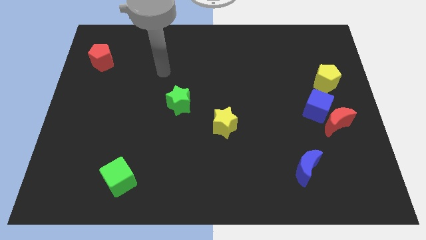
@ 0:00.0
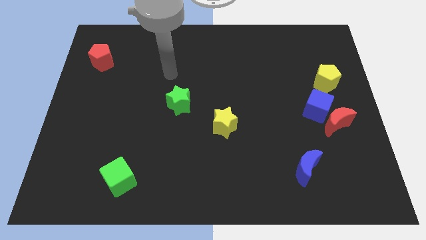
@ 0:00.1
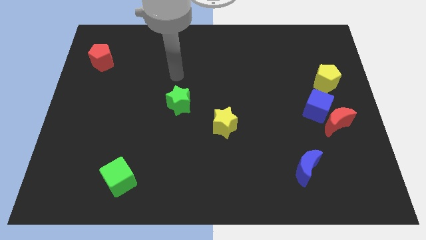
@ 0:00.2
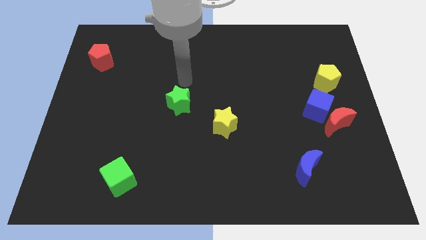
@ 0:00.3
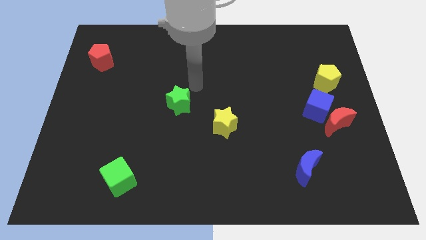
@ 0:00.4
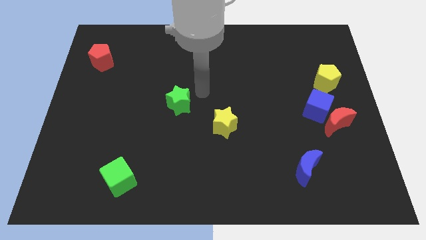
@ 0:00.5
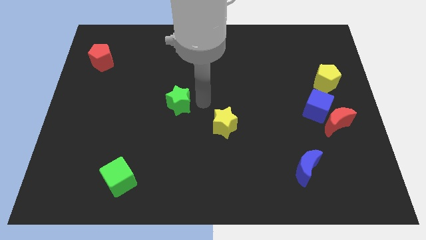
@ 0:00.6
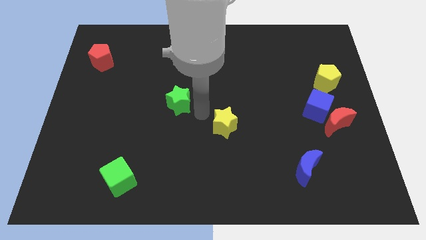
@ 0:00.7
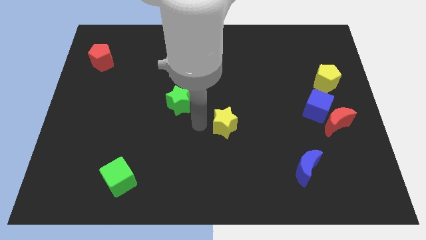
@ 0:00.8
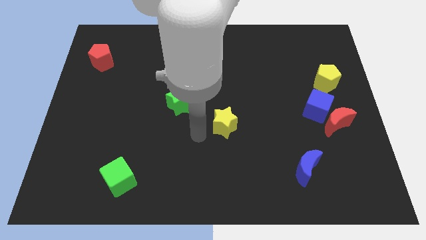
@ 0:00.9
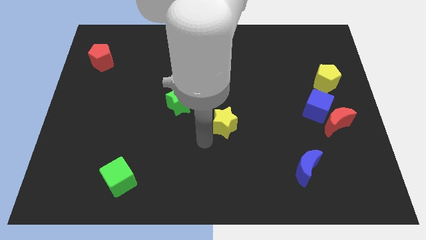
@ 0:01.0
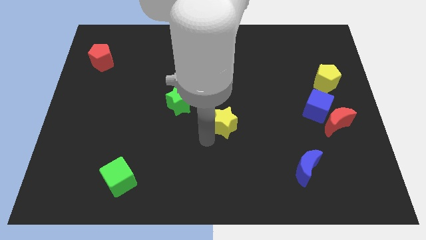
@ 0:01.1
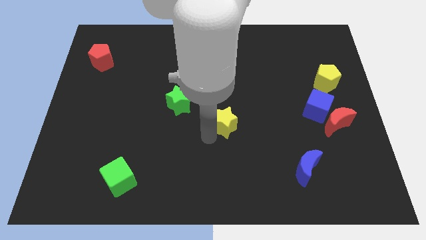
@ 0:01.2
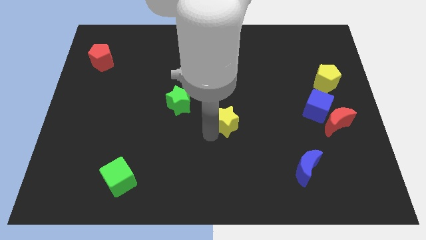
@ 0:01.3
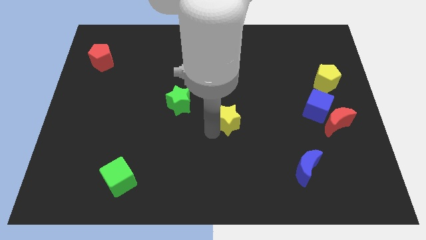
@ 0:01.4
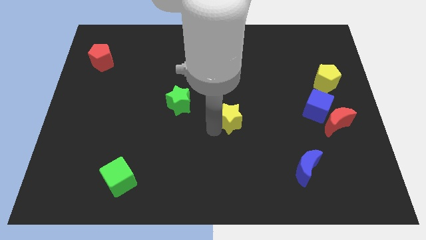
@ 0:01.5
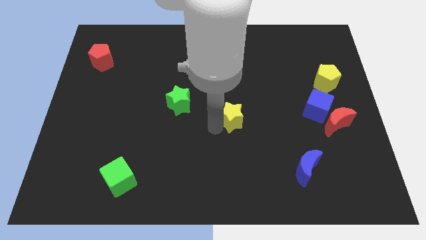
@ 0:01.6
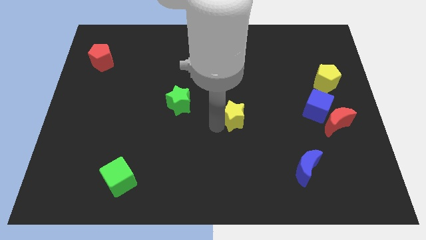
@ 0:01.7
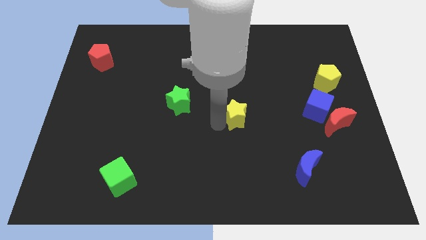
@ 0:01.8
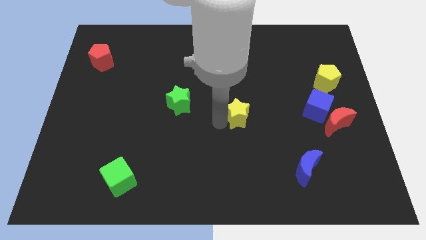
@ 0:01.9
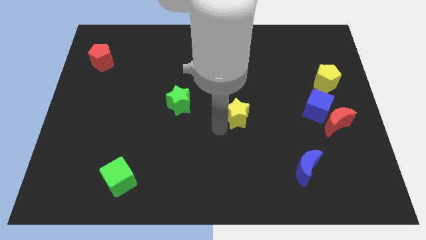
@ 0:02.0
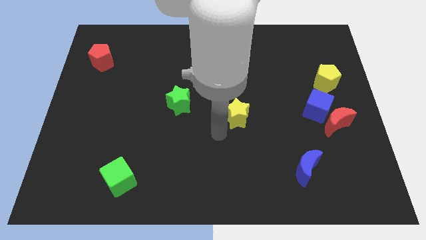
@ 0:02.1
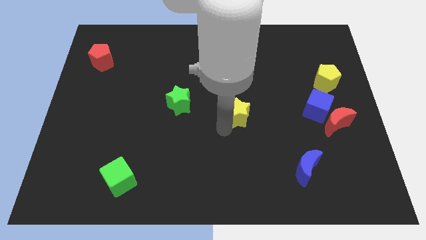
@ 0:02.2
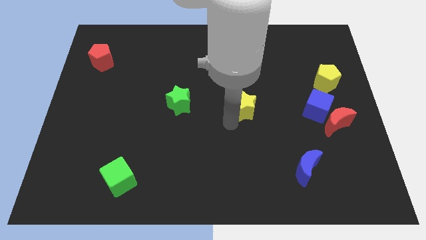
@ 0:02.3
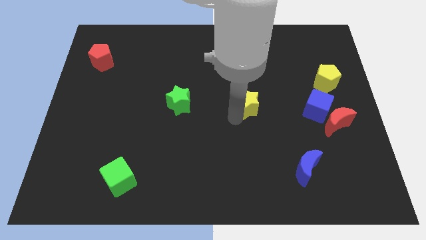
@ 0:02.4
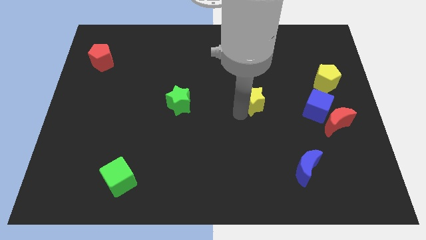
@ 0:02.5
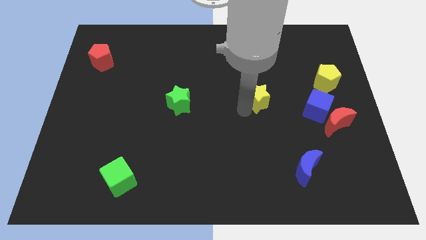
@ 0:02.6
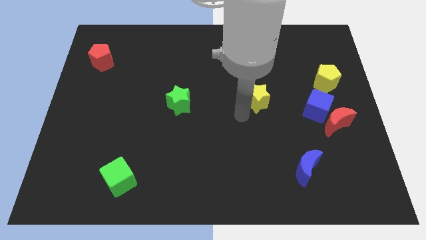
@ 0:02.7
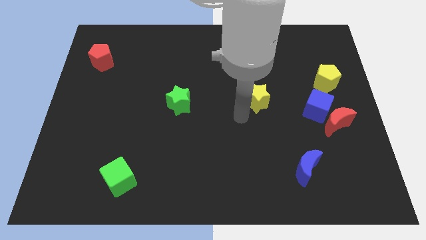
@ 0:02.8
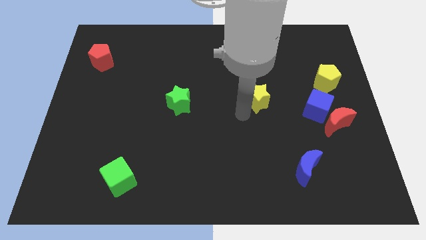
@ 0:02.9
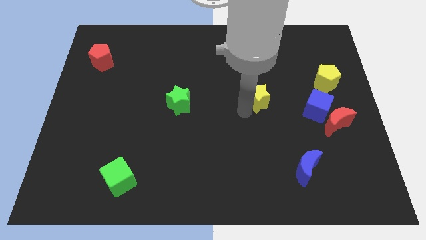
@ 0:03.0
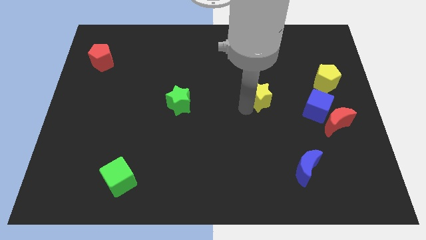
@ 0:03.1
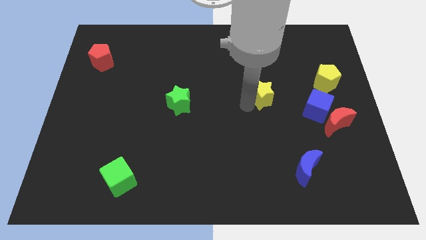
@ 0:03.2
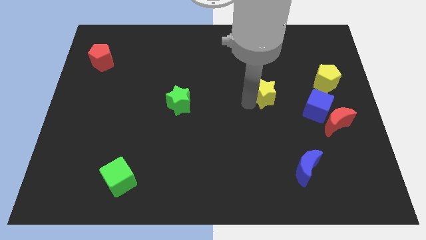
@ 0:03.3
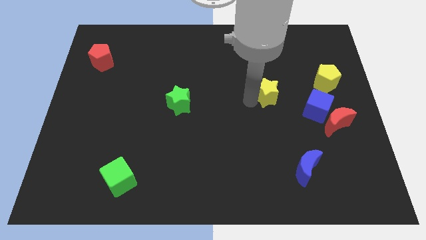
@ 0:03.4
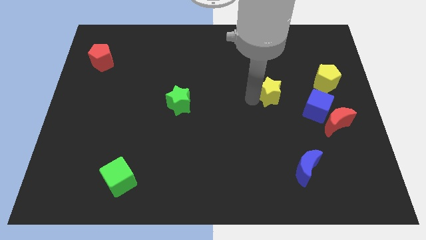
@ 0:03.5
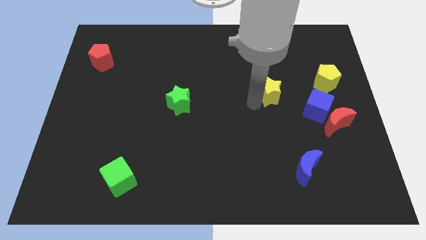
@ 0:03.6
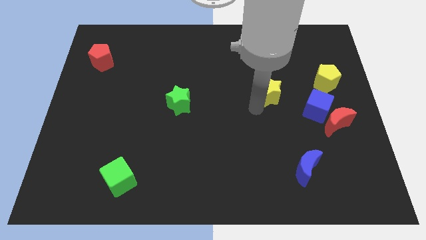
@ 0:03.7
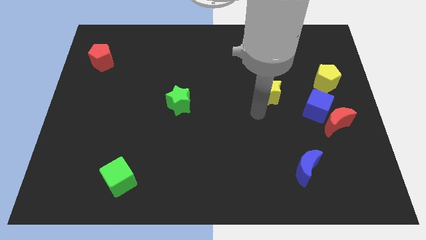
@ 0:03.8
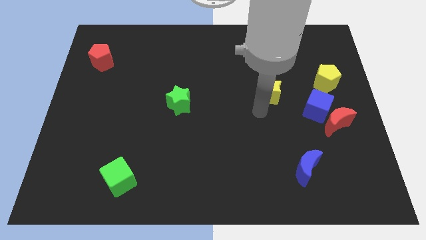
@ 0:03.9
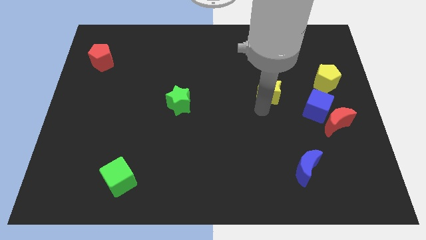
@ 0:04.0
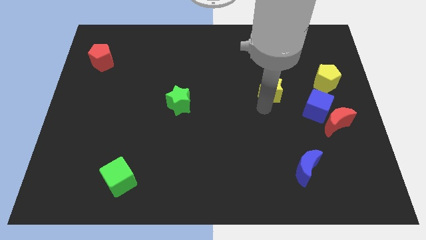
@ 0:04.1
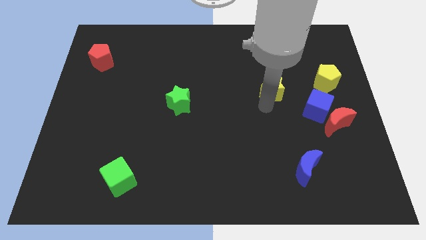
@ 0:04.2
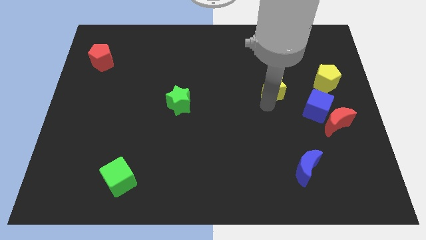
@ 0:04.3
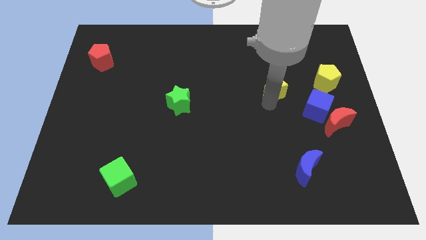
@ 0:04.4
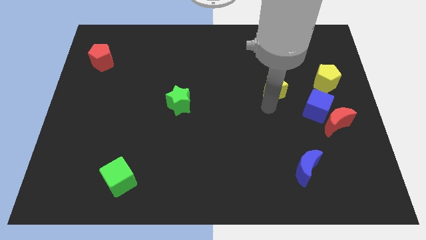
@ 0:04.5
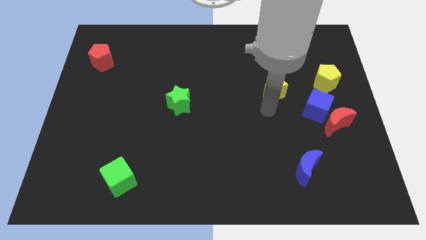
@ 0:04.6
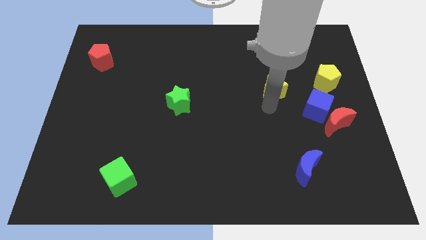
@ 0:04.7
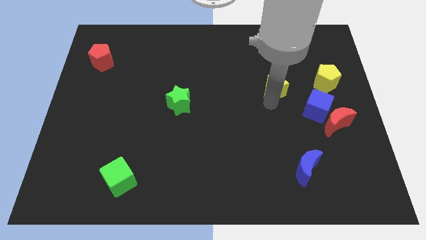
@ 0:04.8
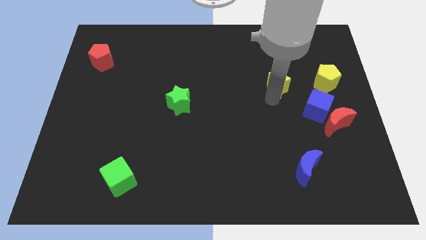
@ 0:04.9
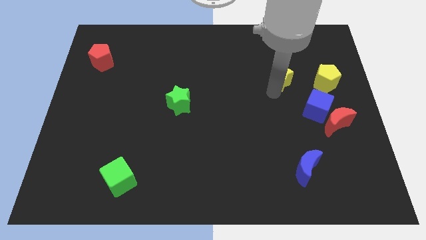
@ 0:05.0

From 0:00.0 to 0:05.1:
slide the yellow star upwards and to the right

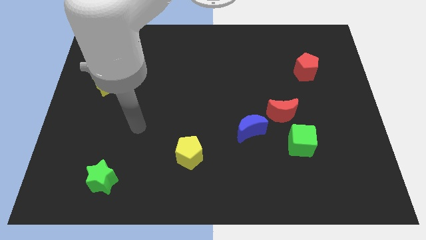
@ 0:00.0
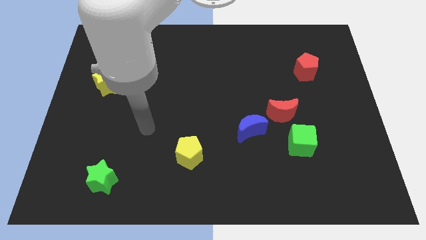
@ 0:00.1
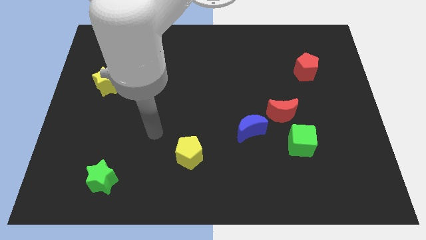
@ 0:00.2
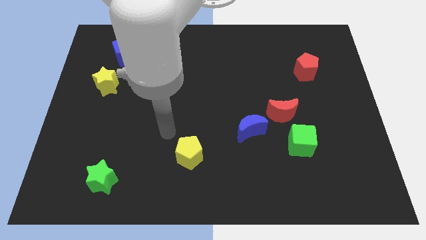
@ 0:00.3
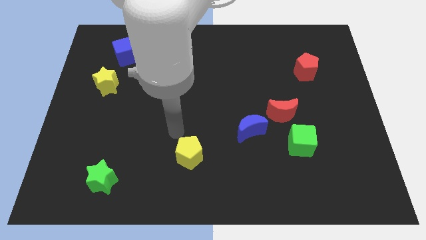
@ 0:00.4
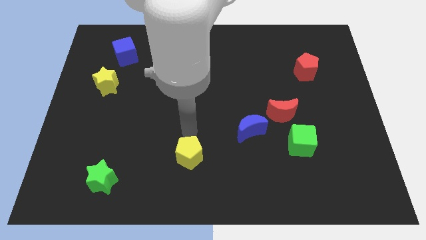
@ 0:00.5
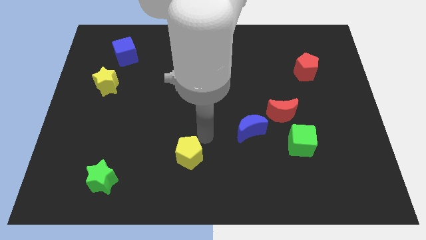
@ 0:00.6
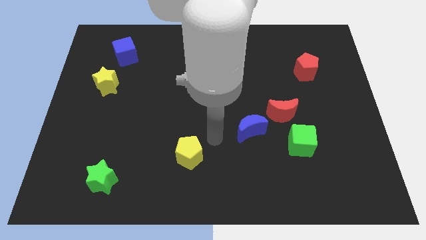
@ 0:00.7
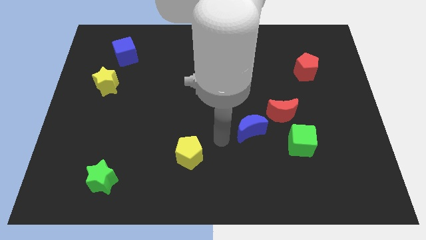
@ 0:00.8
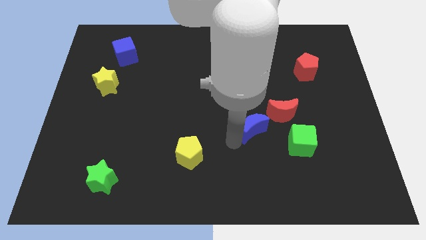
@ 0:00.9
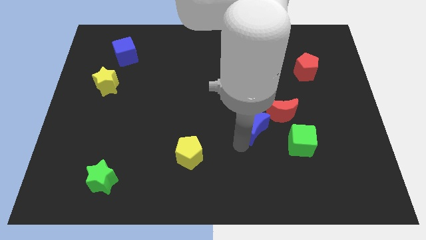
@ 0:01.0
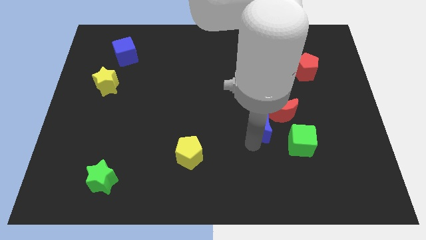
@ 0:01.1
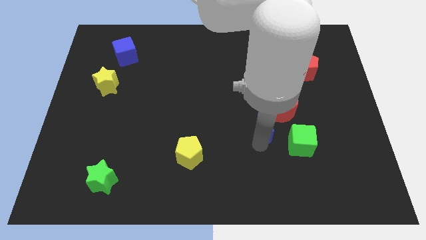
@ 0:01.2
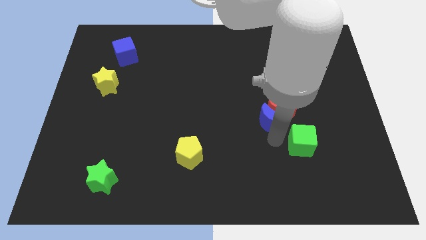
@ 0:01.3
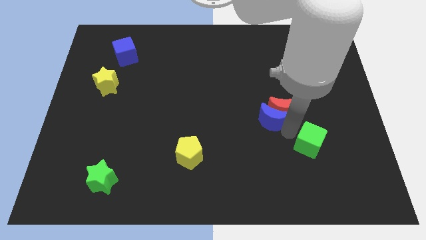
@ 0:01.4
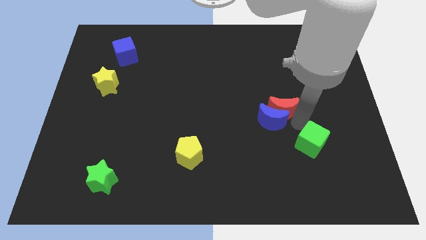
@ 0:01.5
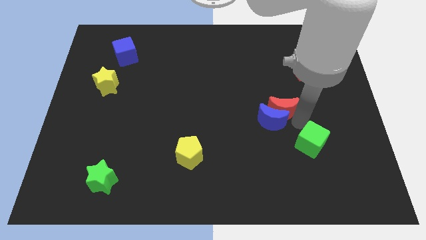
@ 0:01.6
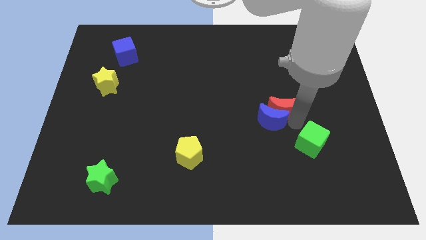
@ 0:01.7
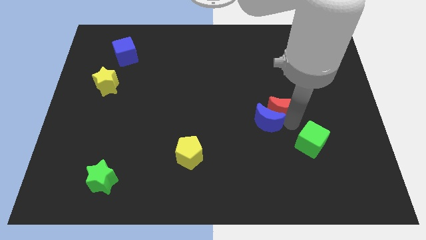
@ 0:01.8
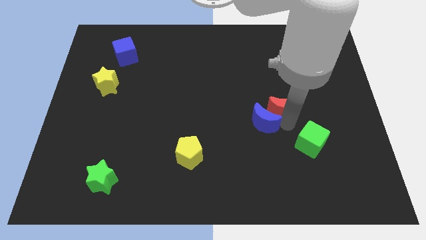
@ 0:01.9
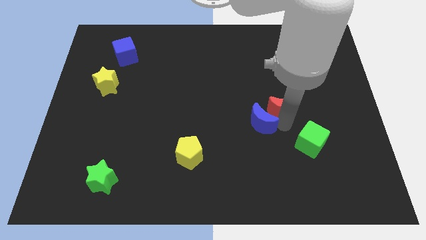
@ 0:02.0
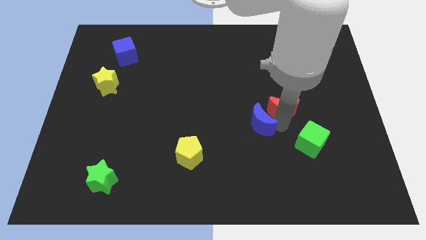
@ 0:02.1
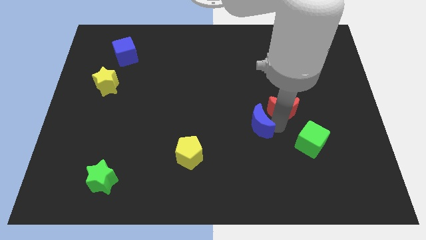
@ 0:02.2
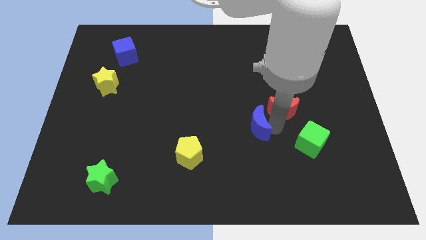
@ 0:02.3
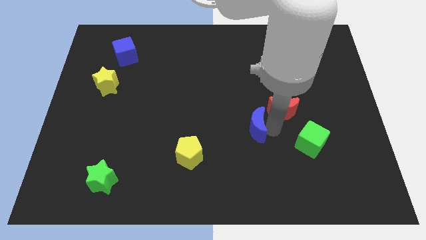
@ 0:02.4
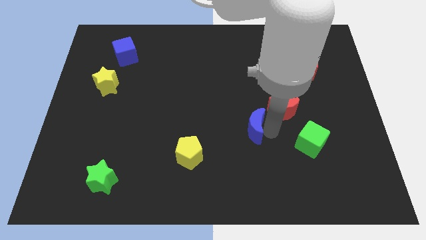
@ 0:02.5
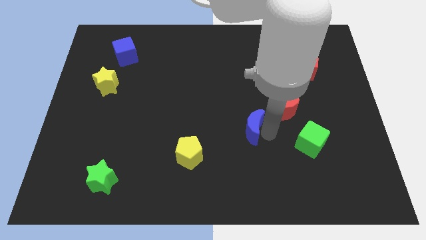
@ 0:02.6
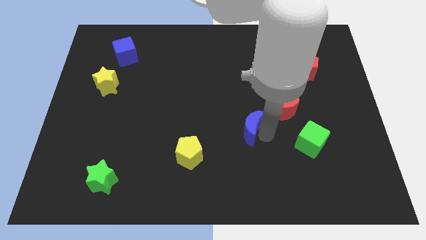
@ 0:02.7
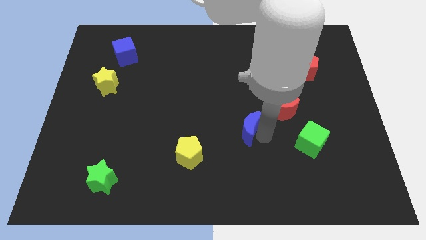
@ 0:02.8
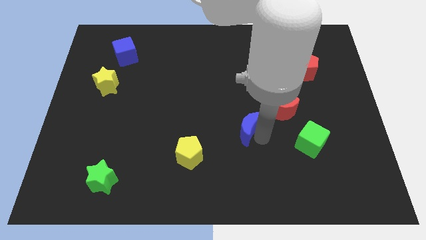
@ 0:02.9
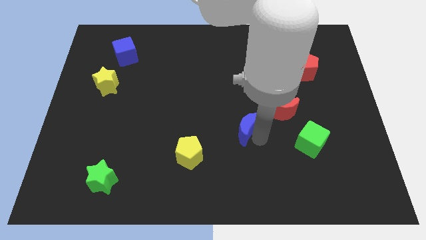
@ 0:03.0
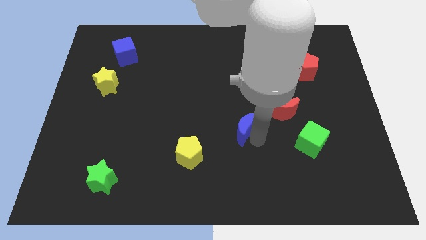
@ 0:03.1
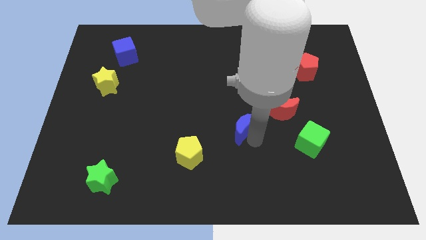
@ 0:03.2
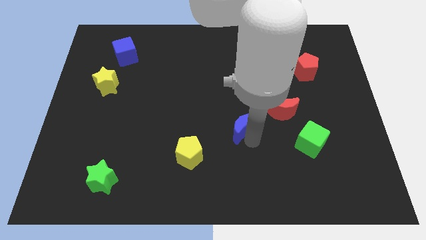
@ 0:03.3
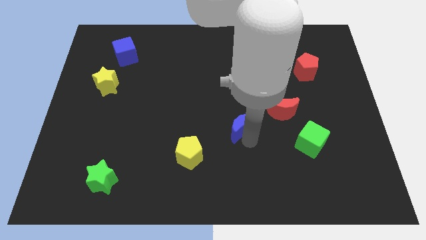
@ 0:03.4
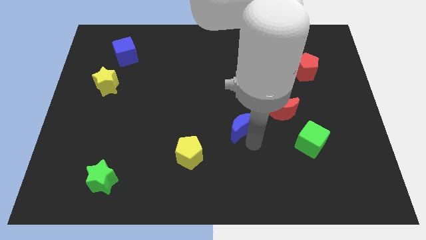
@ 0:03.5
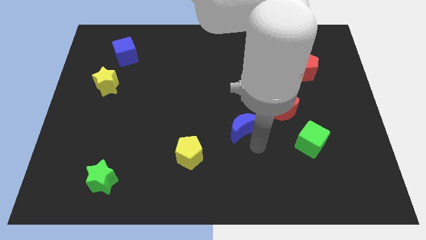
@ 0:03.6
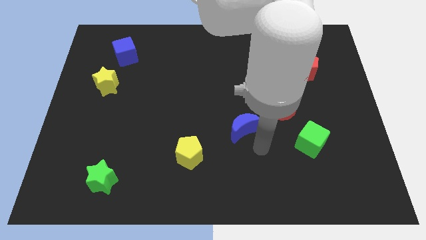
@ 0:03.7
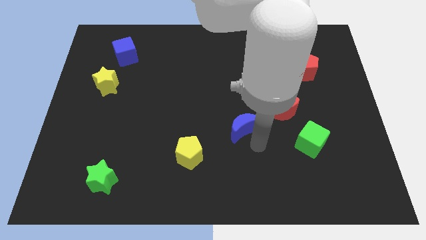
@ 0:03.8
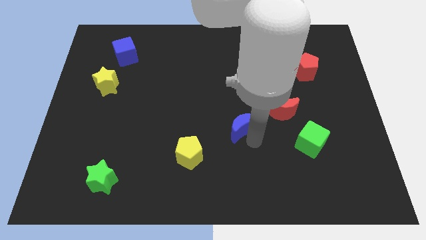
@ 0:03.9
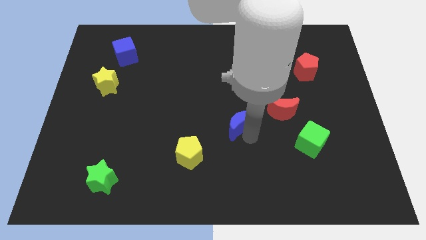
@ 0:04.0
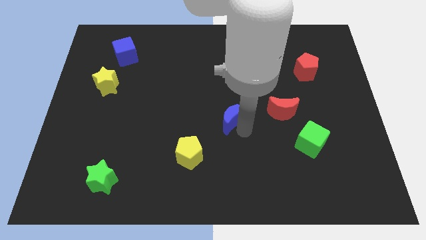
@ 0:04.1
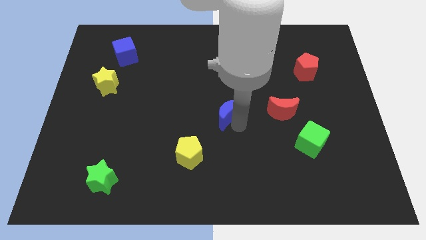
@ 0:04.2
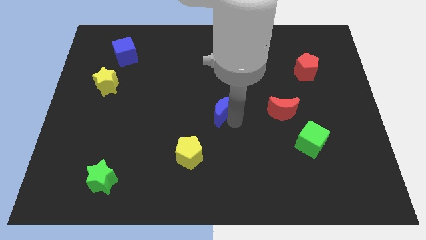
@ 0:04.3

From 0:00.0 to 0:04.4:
move the blue moon a bit upwards and left
